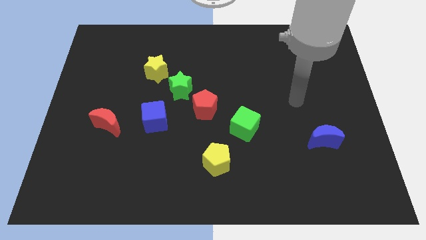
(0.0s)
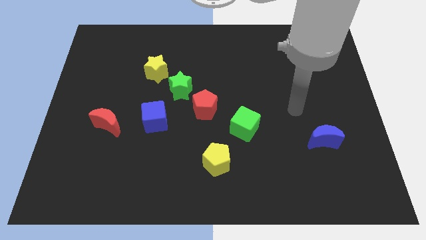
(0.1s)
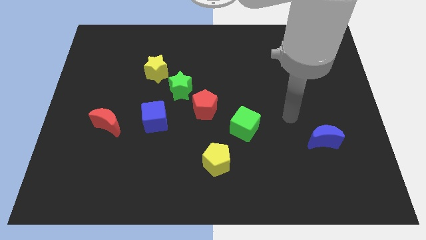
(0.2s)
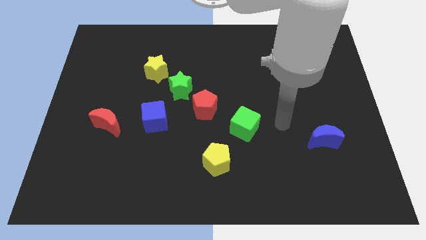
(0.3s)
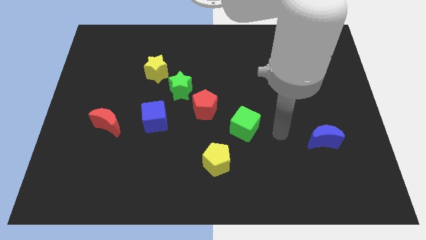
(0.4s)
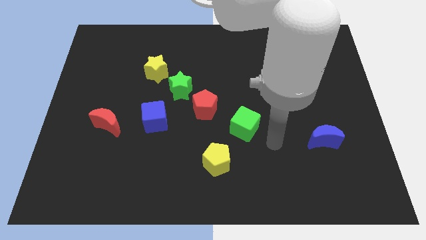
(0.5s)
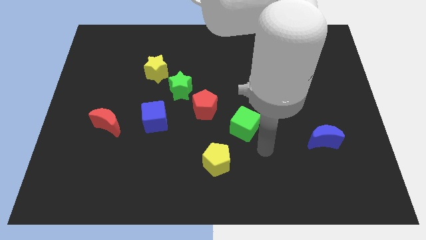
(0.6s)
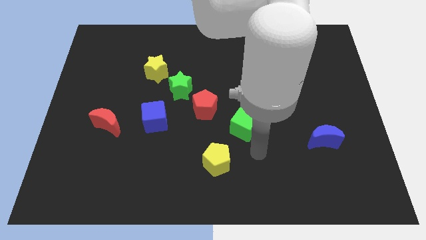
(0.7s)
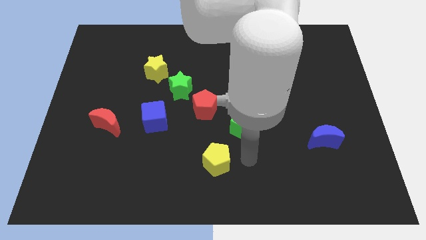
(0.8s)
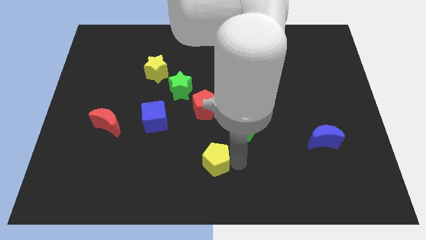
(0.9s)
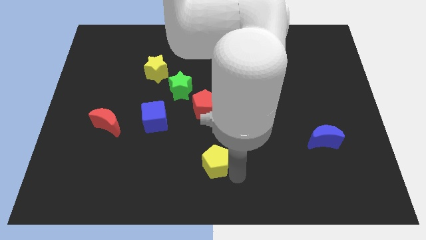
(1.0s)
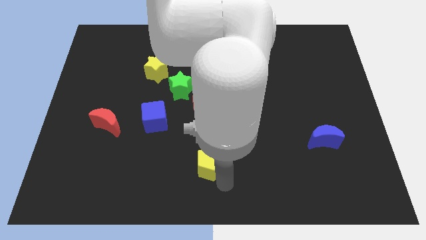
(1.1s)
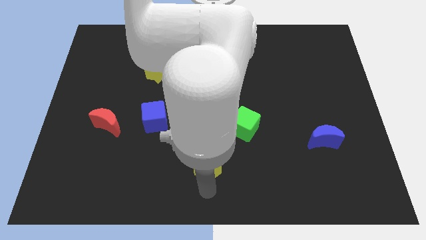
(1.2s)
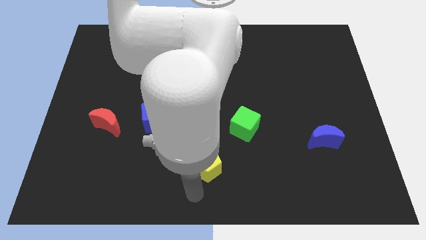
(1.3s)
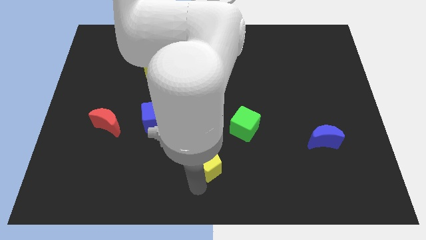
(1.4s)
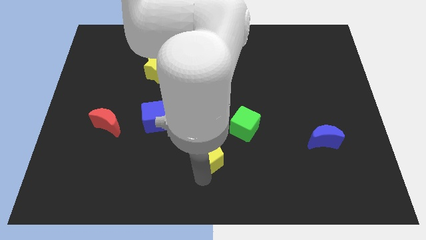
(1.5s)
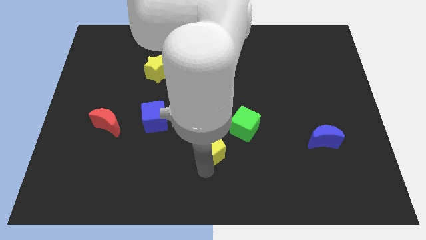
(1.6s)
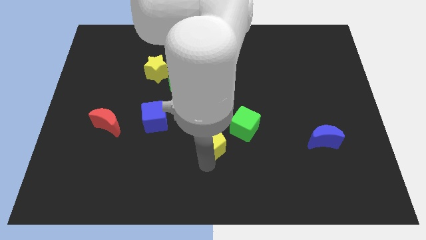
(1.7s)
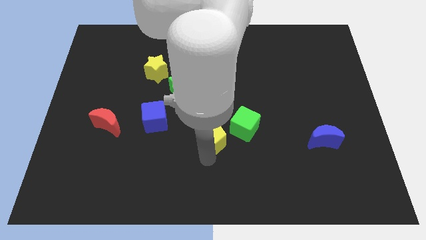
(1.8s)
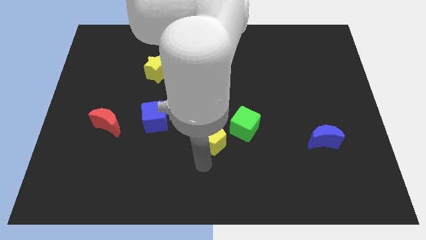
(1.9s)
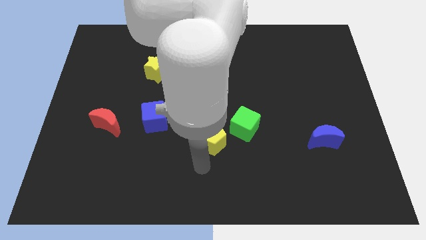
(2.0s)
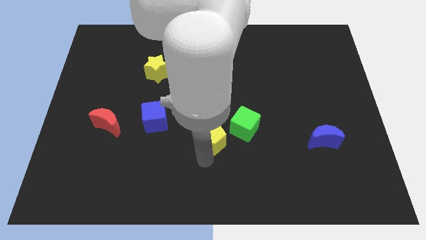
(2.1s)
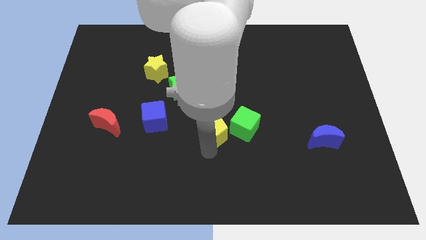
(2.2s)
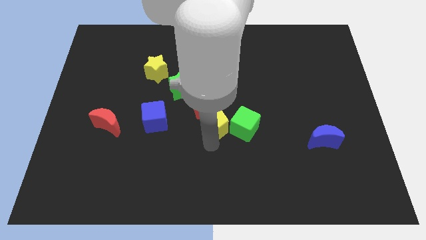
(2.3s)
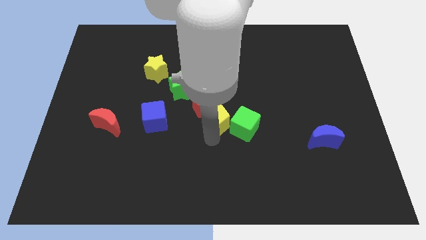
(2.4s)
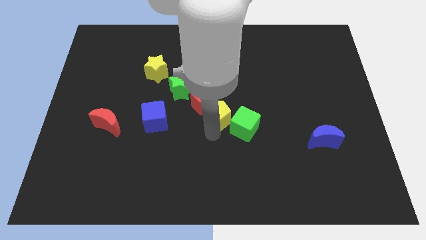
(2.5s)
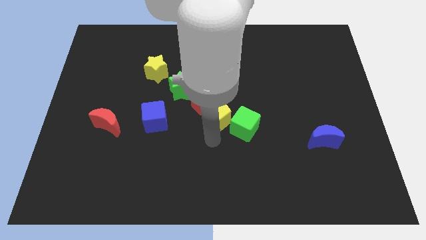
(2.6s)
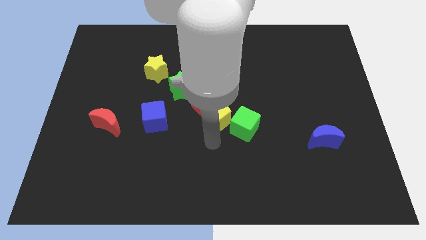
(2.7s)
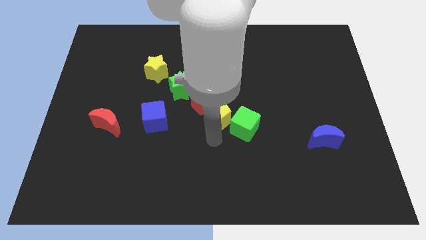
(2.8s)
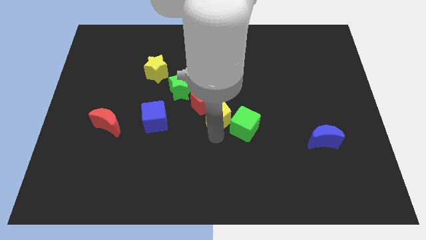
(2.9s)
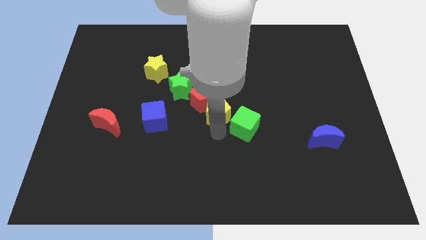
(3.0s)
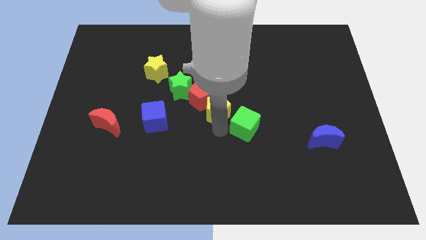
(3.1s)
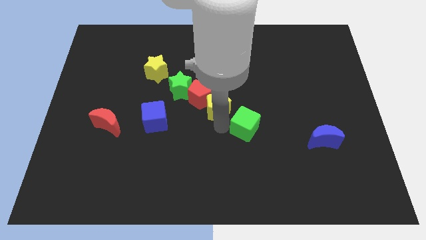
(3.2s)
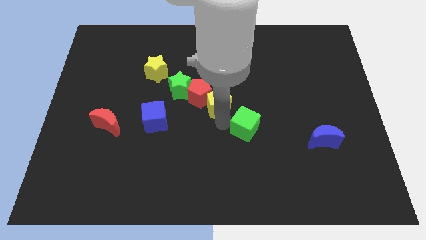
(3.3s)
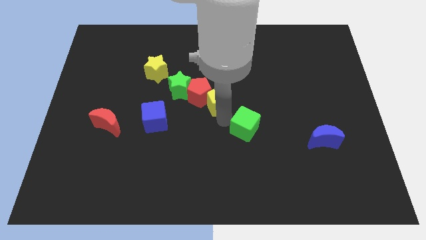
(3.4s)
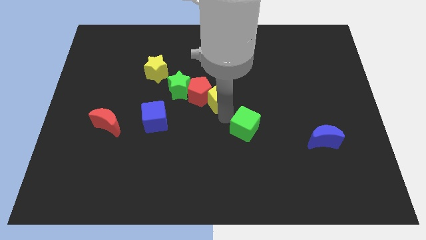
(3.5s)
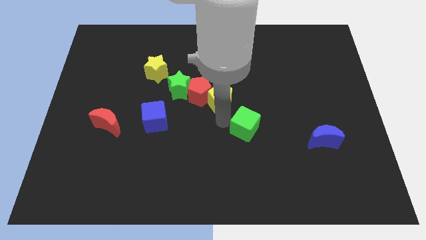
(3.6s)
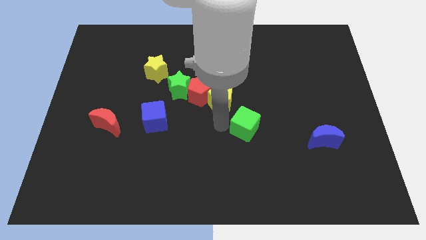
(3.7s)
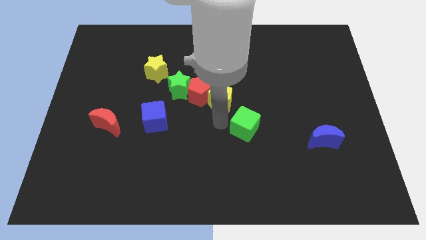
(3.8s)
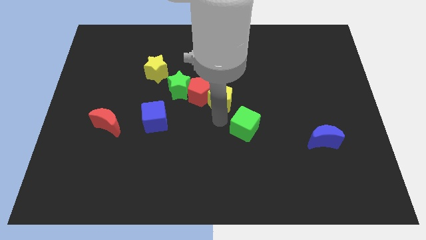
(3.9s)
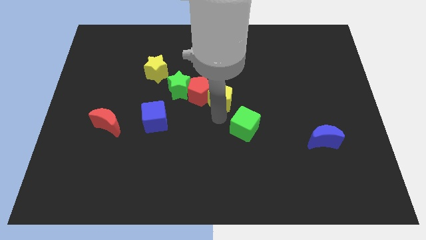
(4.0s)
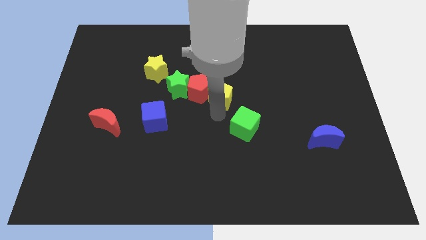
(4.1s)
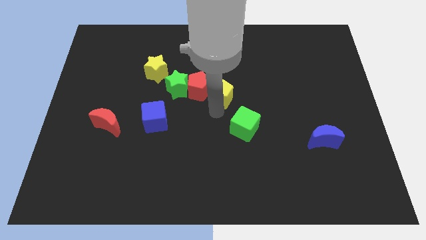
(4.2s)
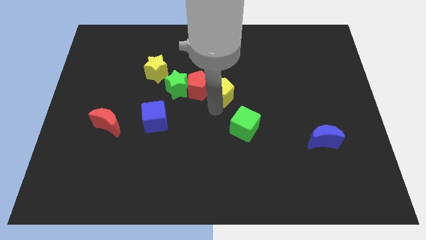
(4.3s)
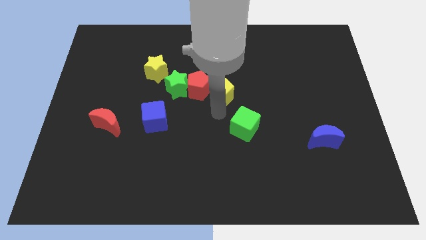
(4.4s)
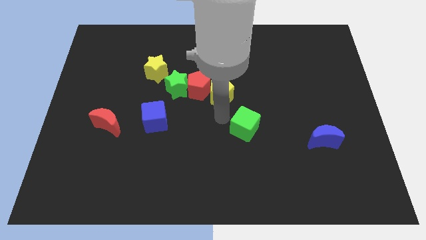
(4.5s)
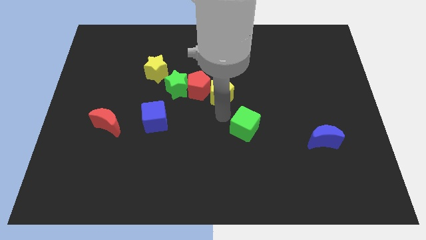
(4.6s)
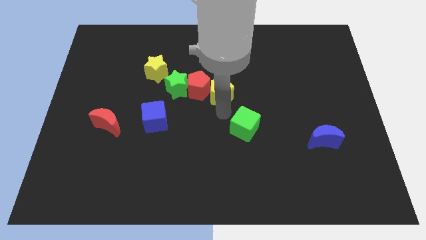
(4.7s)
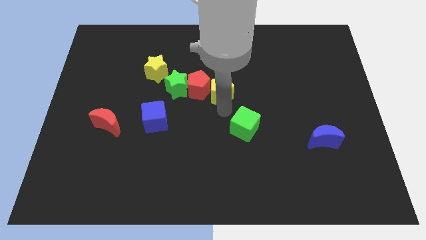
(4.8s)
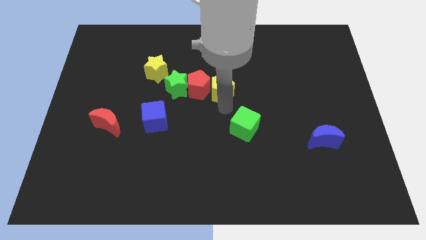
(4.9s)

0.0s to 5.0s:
move the yellow pentagon to the top right side of the red pentagon

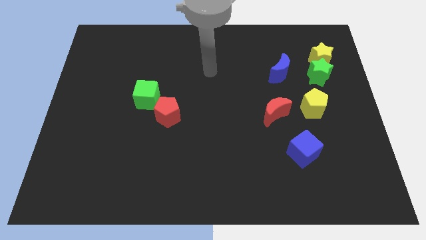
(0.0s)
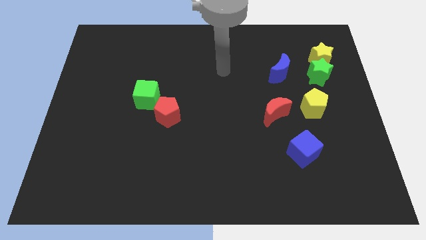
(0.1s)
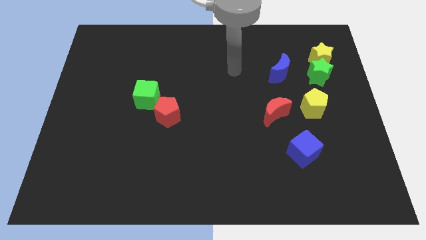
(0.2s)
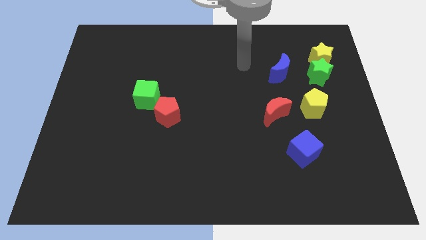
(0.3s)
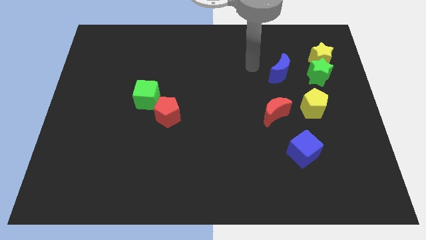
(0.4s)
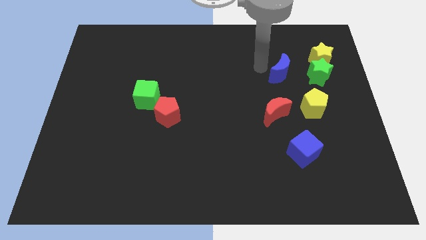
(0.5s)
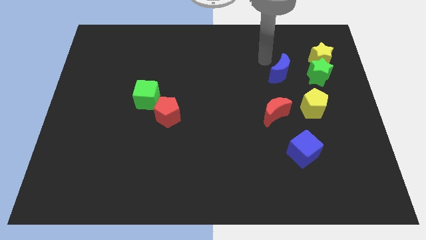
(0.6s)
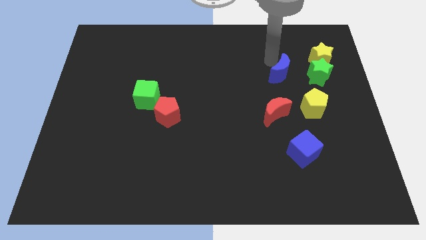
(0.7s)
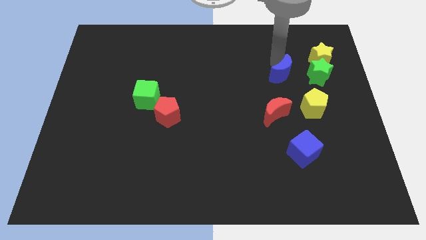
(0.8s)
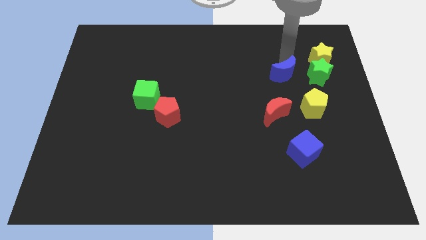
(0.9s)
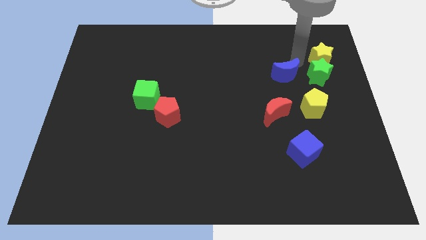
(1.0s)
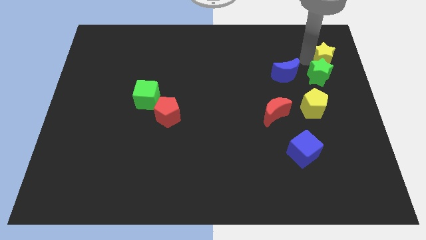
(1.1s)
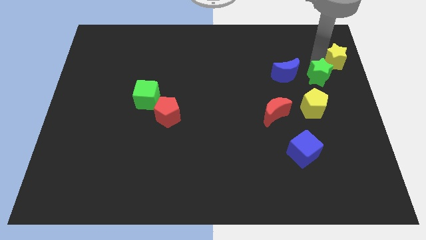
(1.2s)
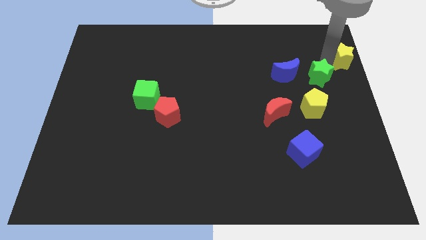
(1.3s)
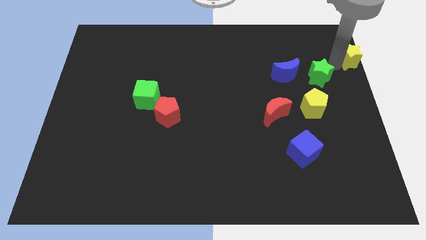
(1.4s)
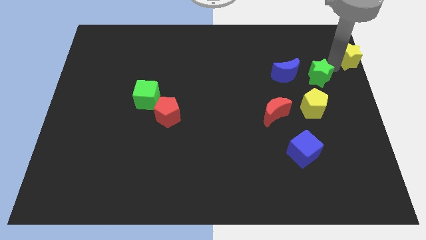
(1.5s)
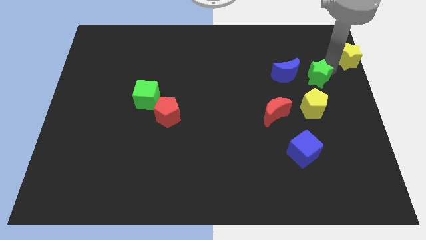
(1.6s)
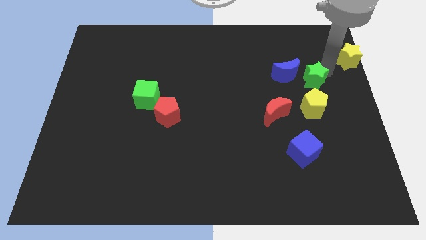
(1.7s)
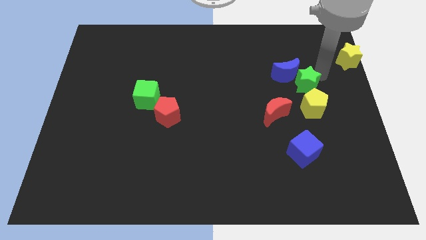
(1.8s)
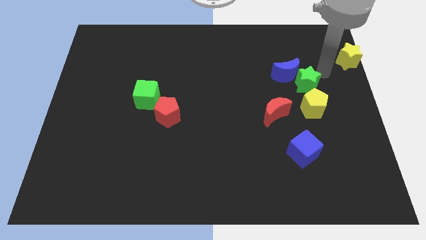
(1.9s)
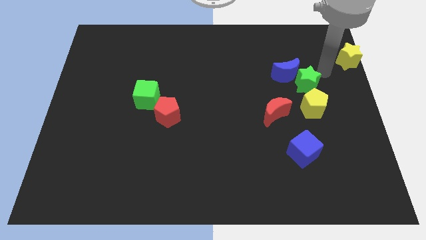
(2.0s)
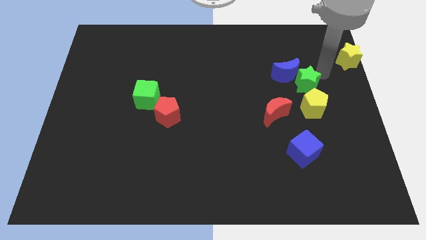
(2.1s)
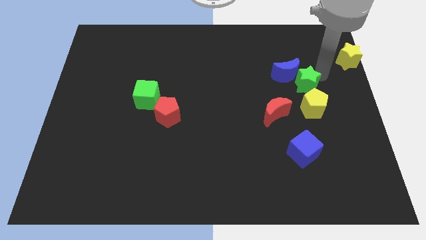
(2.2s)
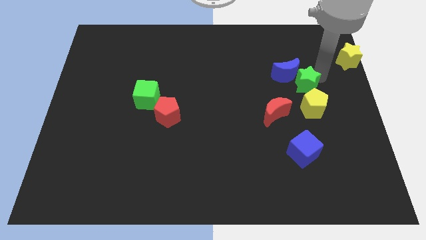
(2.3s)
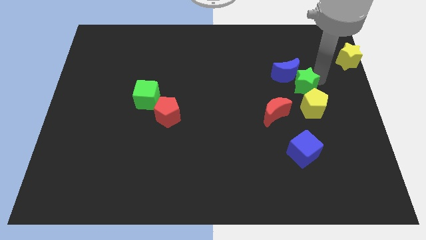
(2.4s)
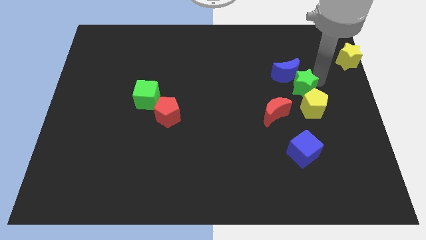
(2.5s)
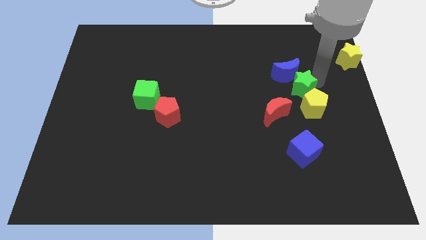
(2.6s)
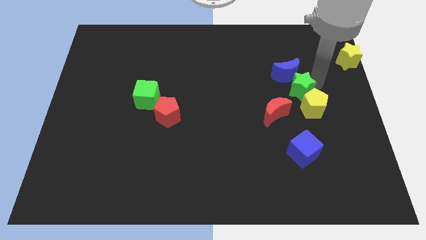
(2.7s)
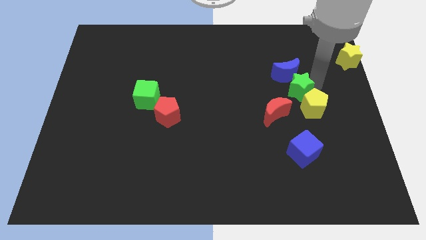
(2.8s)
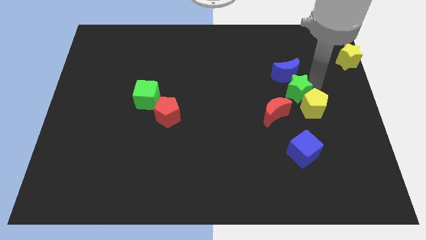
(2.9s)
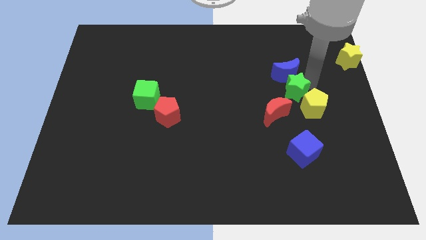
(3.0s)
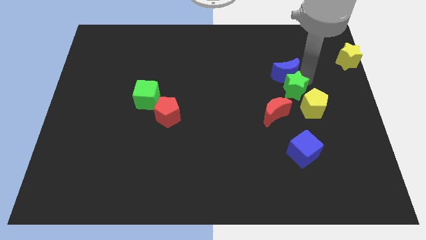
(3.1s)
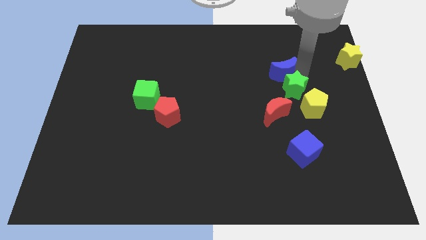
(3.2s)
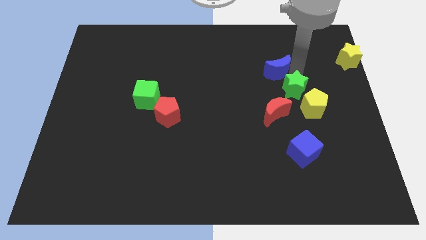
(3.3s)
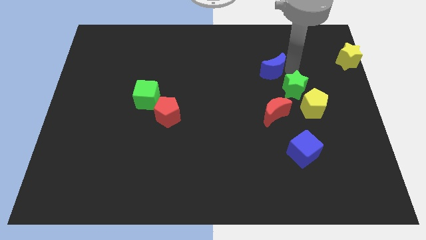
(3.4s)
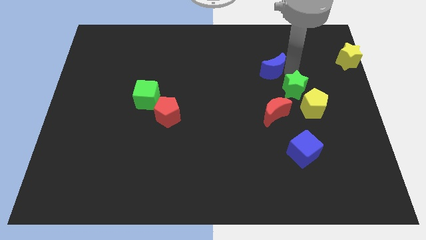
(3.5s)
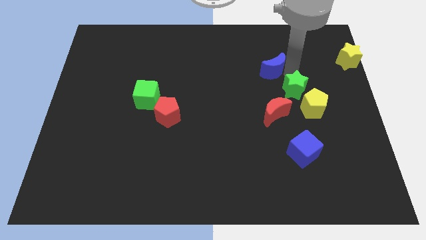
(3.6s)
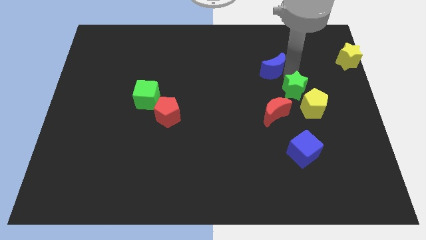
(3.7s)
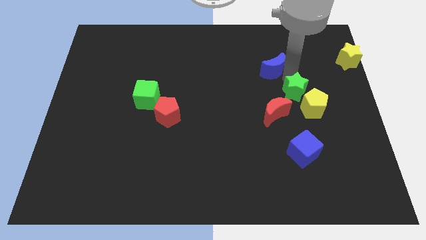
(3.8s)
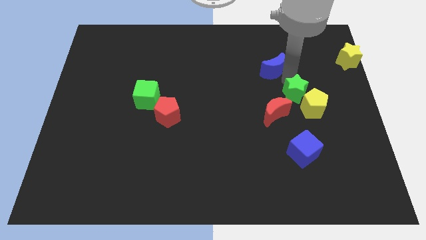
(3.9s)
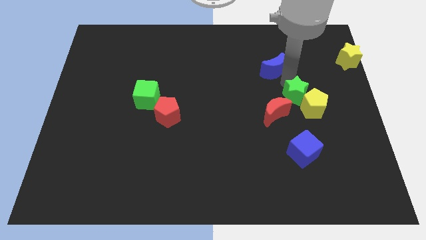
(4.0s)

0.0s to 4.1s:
move the green star to the top side of the blue cube
